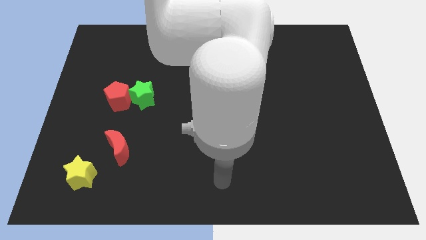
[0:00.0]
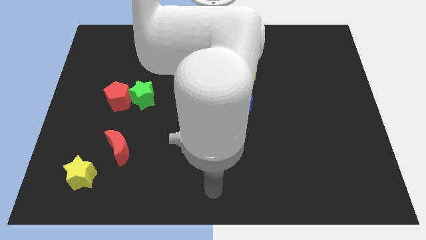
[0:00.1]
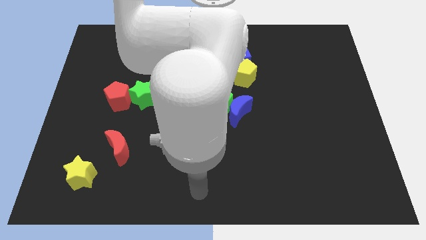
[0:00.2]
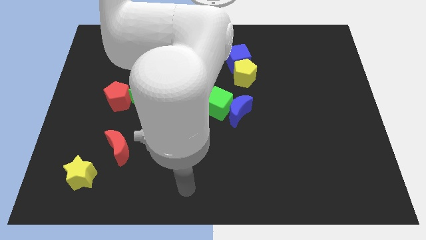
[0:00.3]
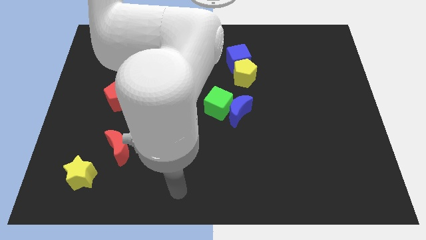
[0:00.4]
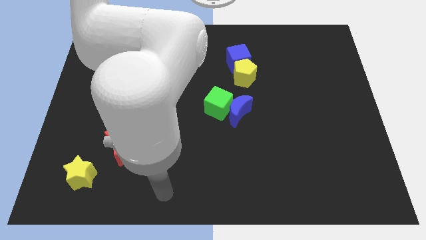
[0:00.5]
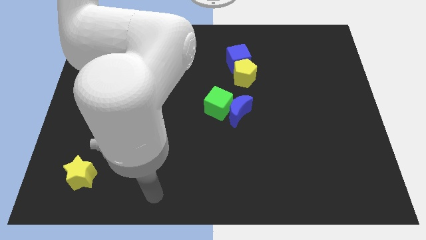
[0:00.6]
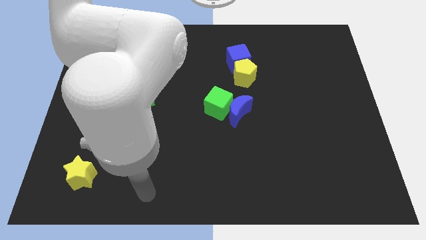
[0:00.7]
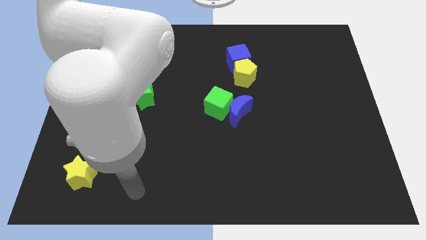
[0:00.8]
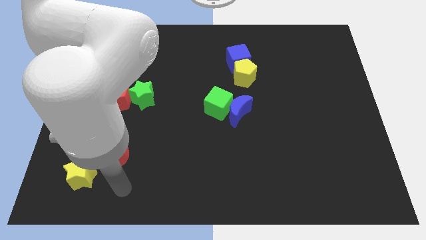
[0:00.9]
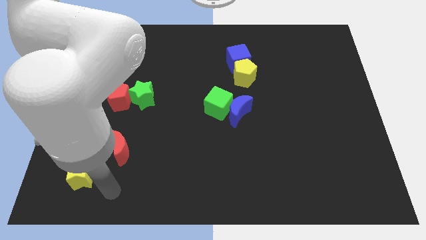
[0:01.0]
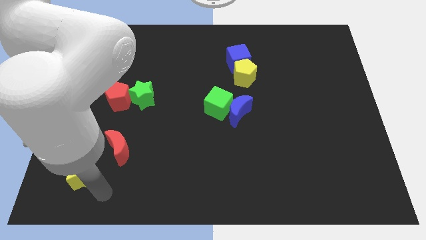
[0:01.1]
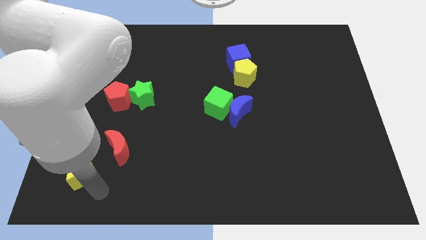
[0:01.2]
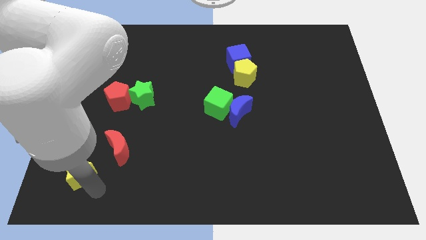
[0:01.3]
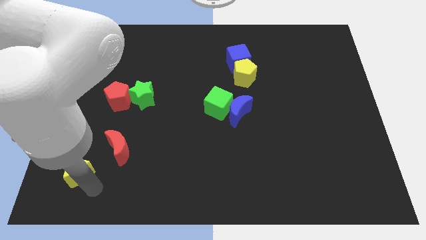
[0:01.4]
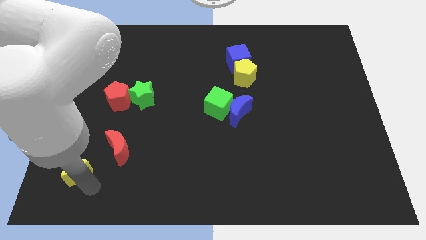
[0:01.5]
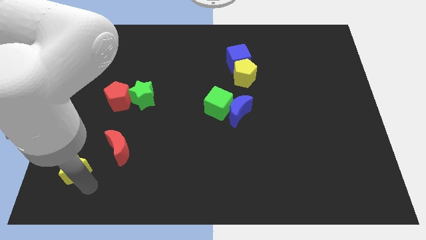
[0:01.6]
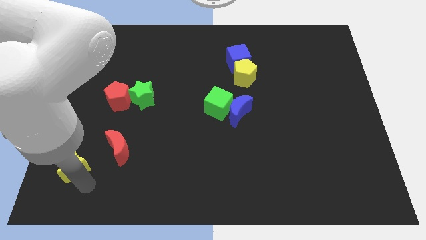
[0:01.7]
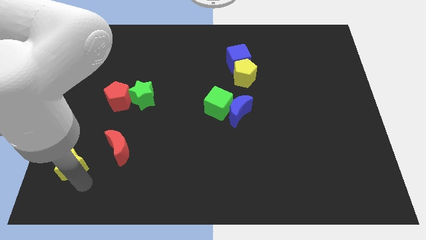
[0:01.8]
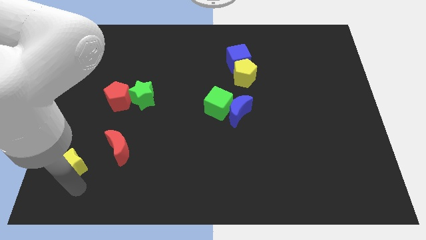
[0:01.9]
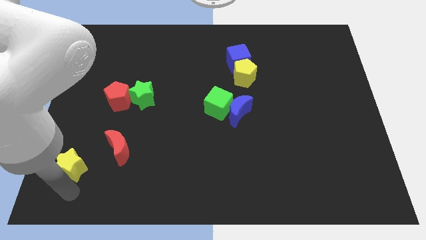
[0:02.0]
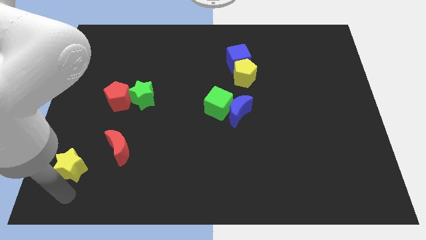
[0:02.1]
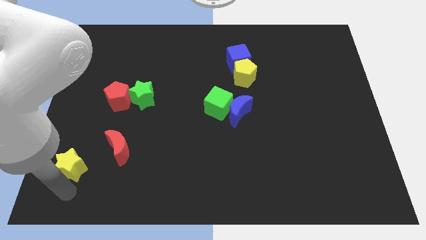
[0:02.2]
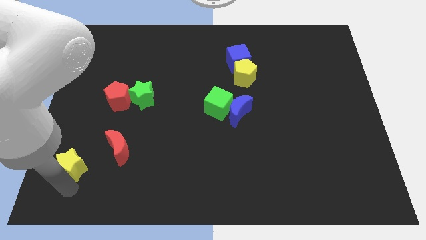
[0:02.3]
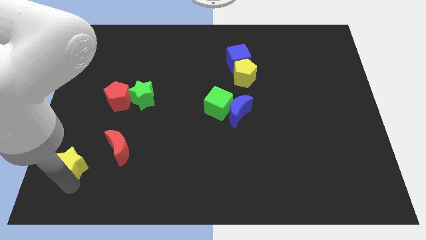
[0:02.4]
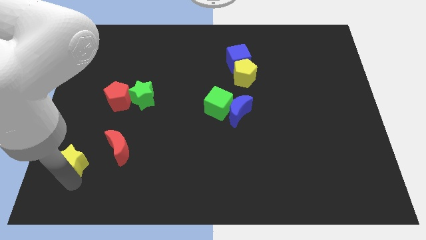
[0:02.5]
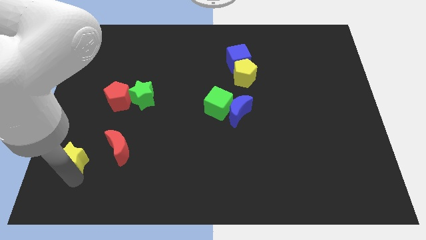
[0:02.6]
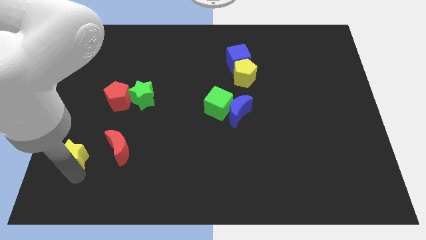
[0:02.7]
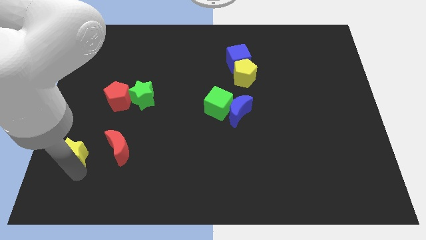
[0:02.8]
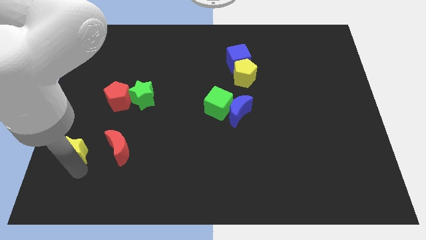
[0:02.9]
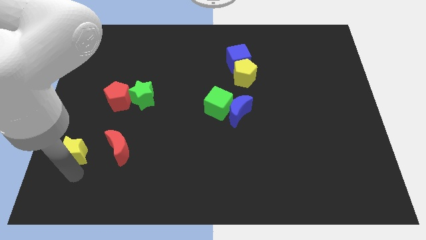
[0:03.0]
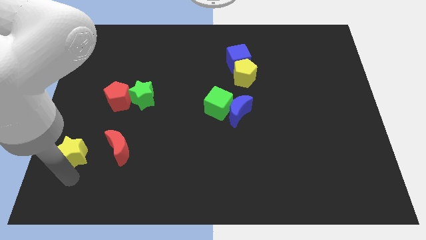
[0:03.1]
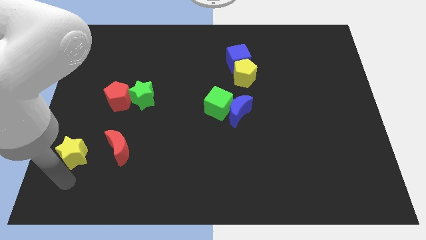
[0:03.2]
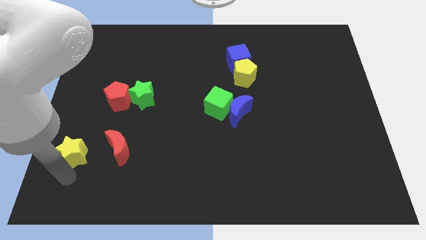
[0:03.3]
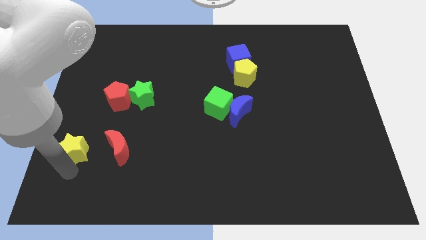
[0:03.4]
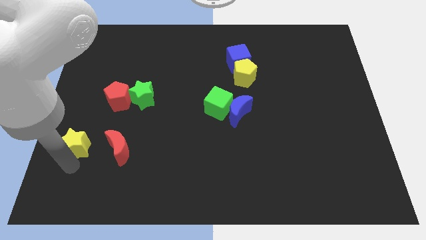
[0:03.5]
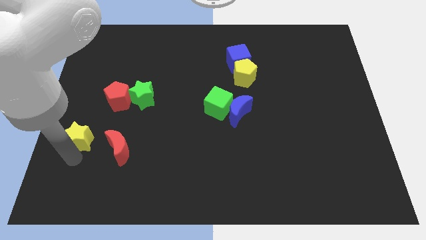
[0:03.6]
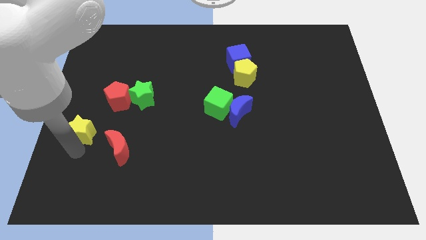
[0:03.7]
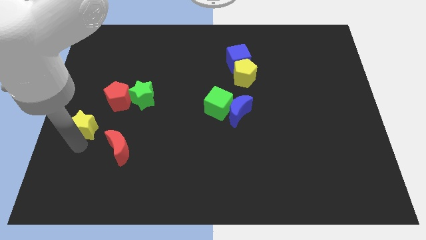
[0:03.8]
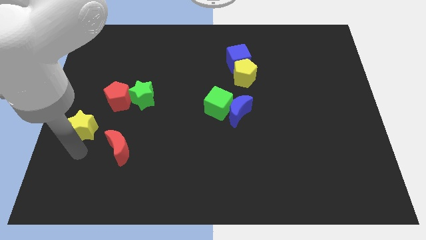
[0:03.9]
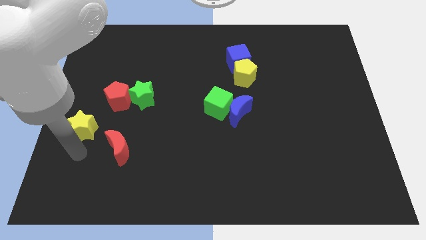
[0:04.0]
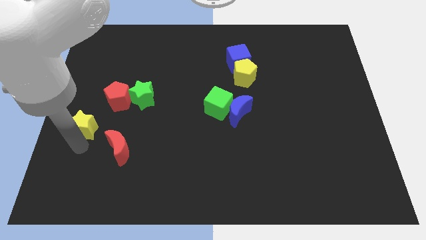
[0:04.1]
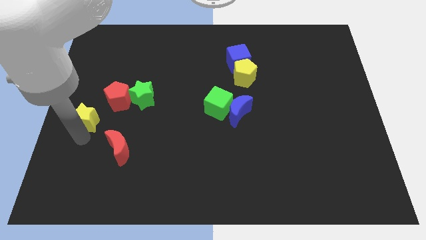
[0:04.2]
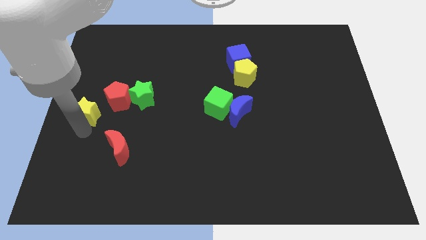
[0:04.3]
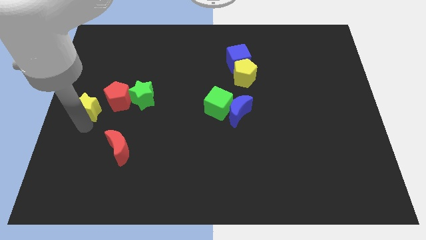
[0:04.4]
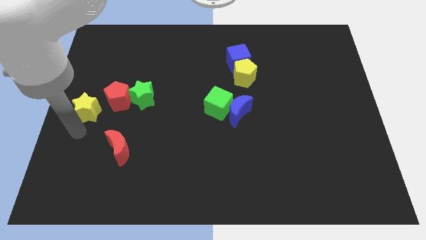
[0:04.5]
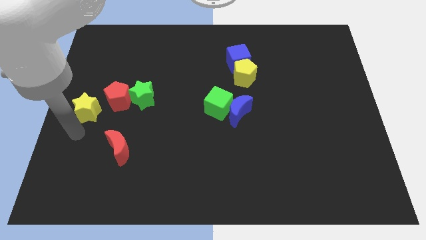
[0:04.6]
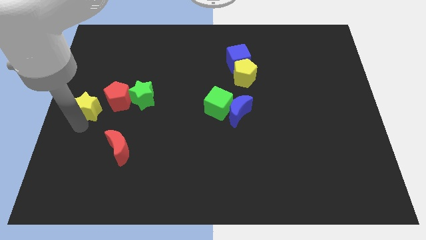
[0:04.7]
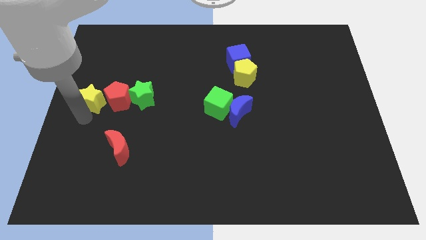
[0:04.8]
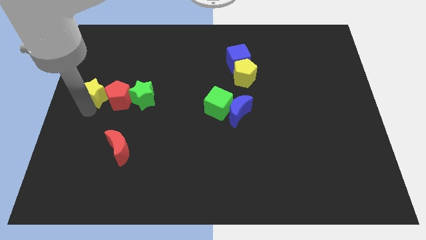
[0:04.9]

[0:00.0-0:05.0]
move the yellow star up

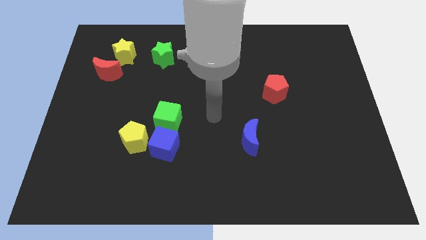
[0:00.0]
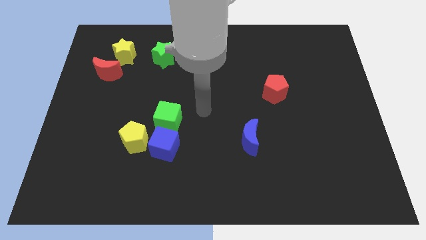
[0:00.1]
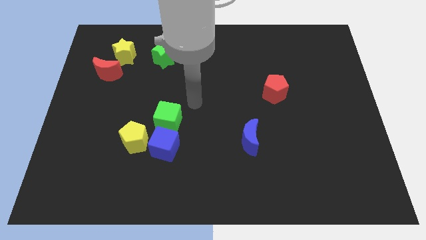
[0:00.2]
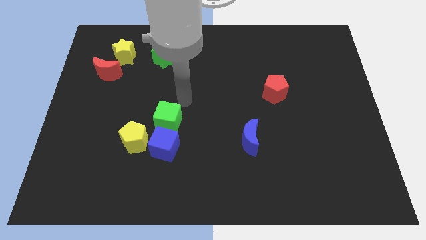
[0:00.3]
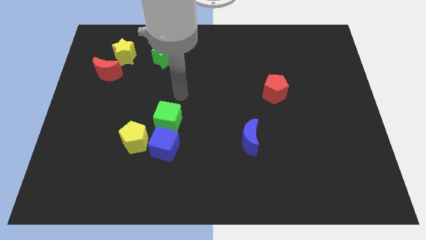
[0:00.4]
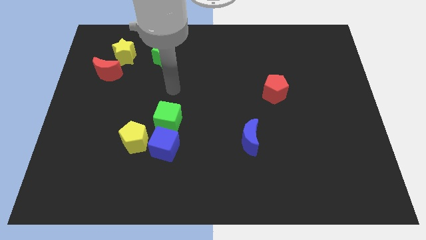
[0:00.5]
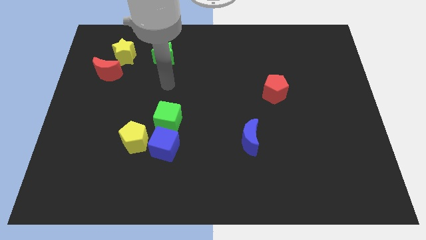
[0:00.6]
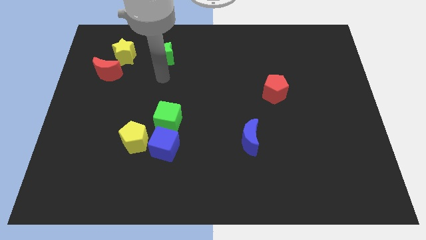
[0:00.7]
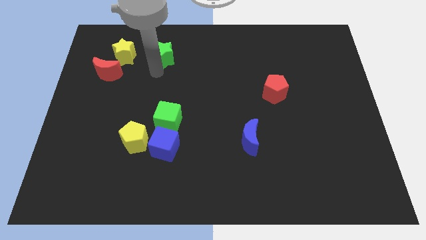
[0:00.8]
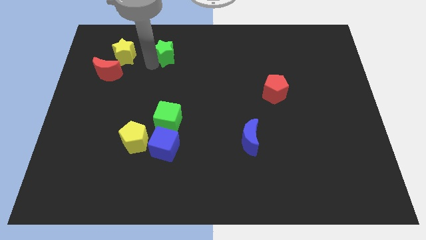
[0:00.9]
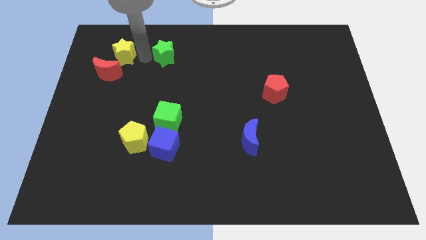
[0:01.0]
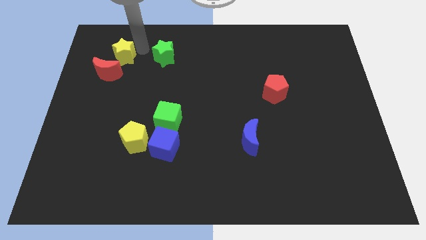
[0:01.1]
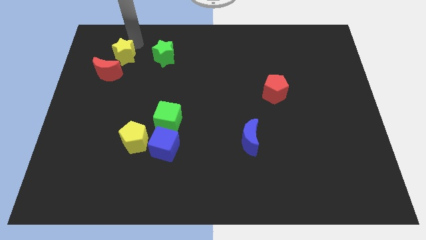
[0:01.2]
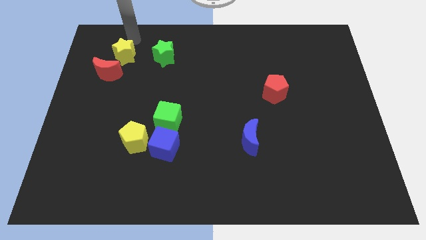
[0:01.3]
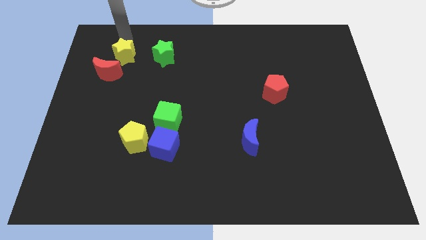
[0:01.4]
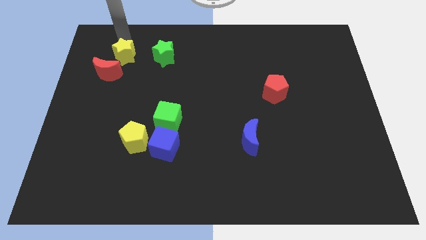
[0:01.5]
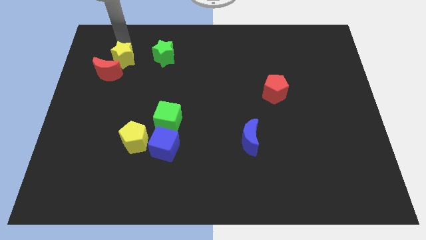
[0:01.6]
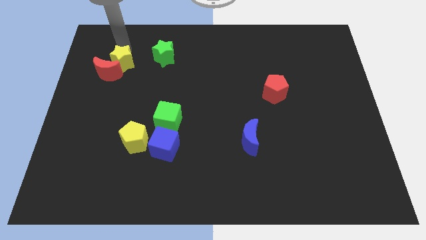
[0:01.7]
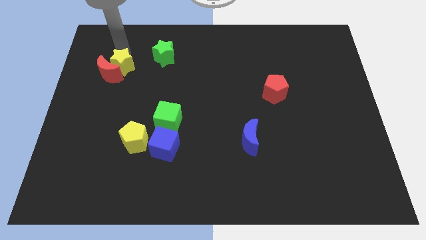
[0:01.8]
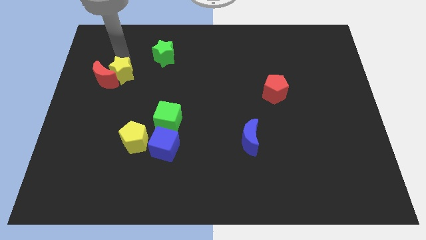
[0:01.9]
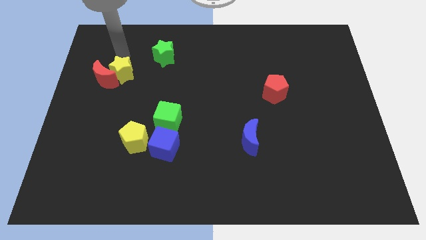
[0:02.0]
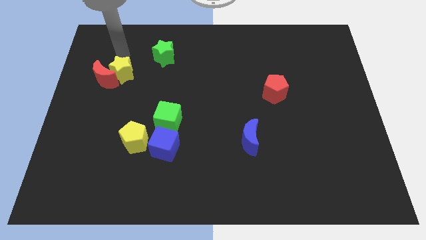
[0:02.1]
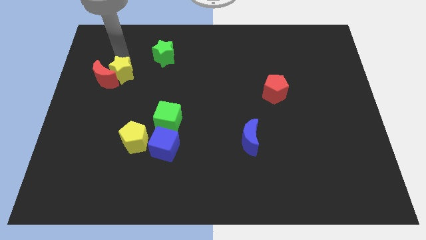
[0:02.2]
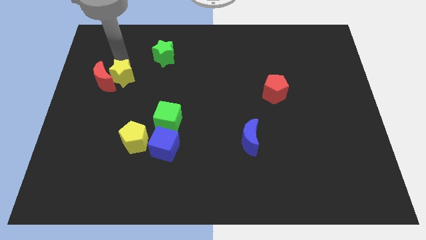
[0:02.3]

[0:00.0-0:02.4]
slightly slide the yellow star downwards

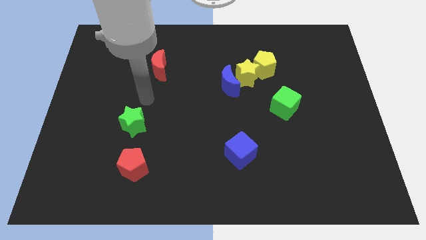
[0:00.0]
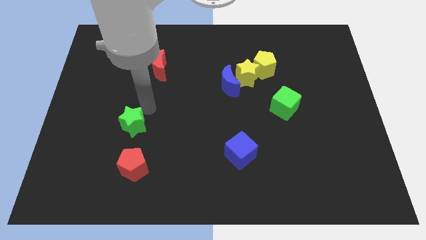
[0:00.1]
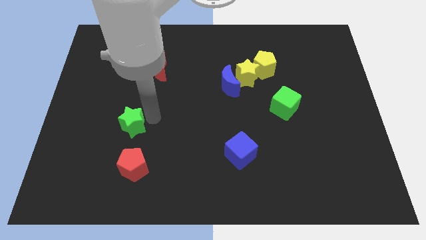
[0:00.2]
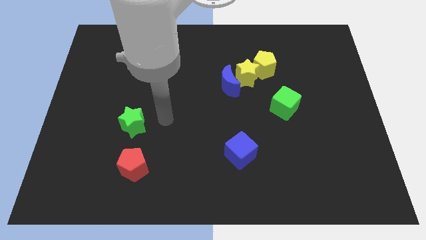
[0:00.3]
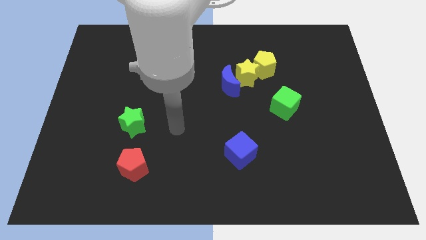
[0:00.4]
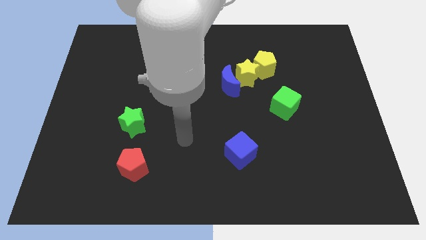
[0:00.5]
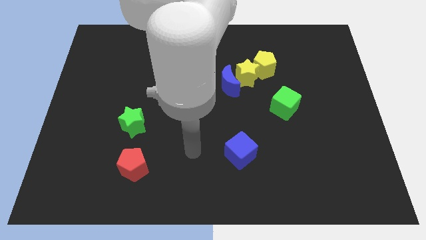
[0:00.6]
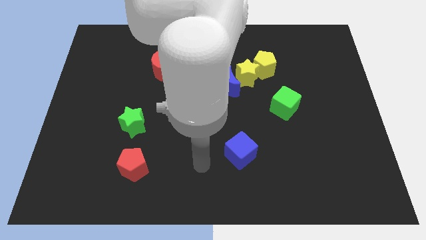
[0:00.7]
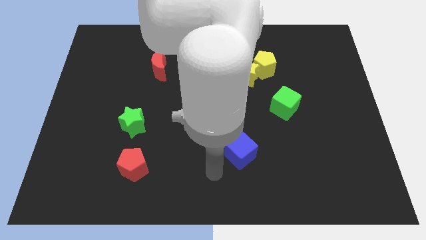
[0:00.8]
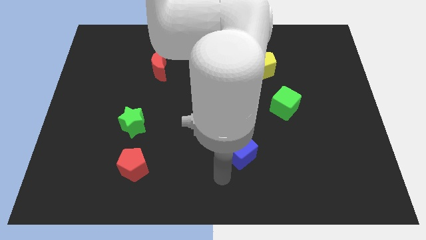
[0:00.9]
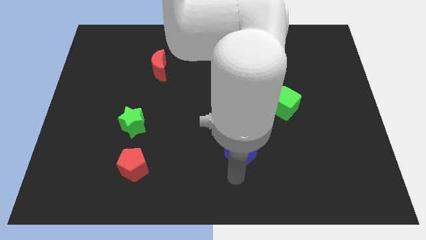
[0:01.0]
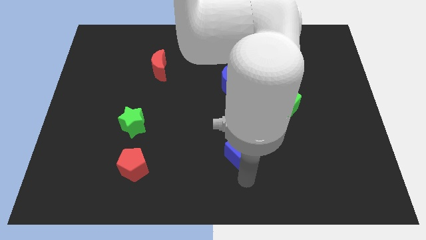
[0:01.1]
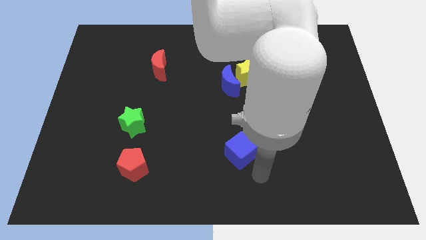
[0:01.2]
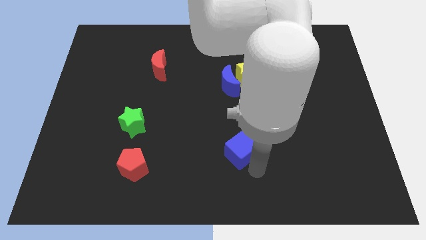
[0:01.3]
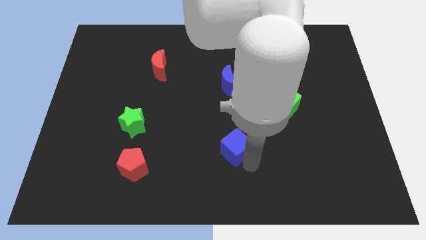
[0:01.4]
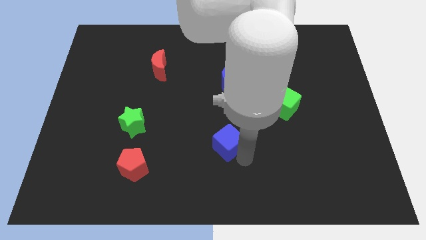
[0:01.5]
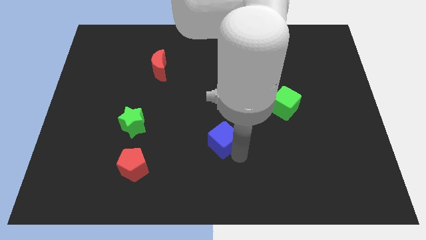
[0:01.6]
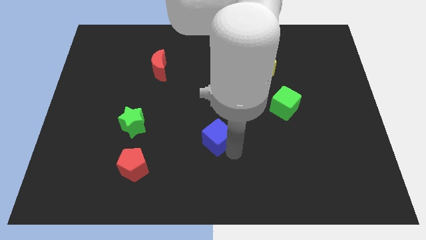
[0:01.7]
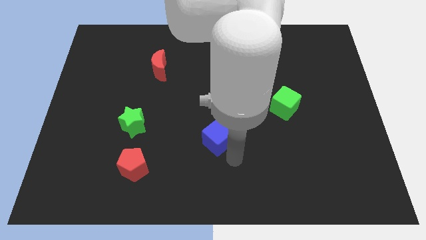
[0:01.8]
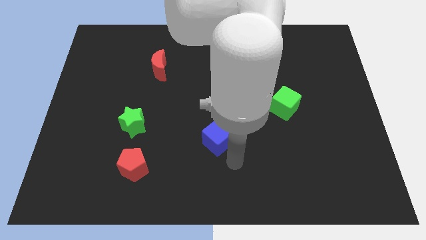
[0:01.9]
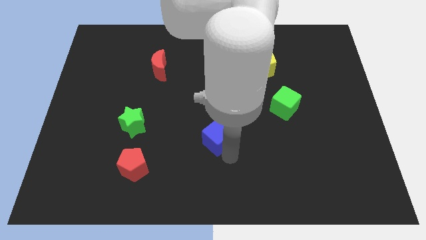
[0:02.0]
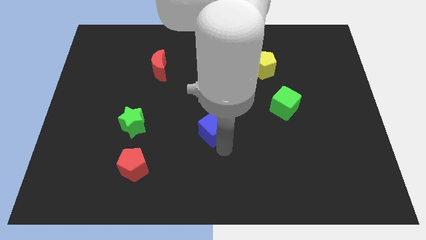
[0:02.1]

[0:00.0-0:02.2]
slide the blue cube up and to the left a little
